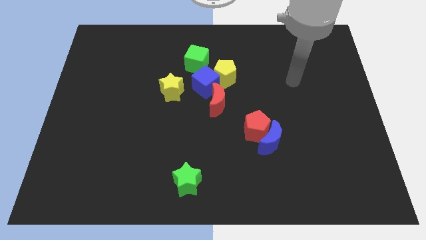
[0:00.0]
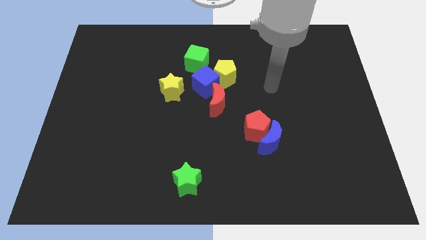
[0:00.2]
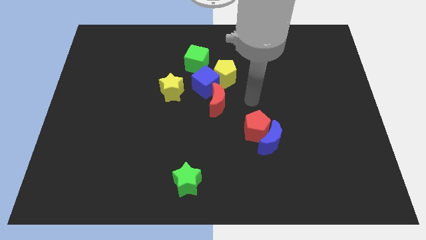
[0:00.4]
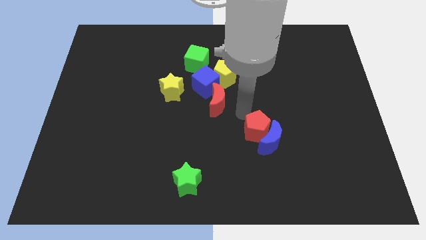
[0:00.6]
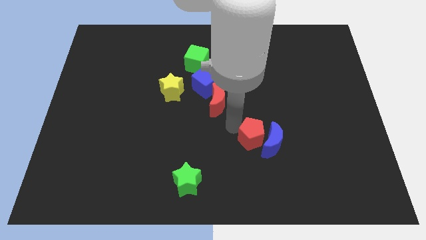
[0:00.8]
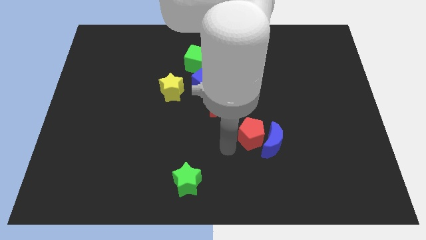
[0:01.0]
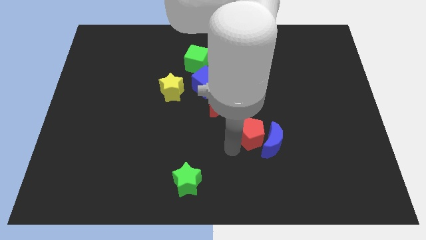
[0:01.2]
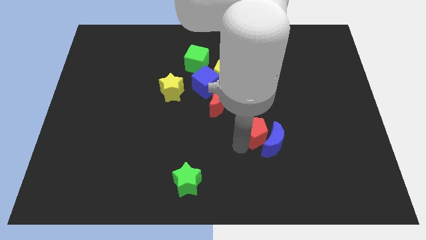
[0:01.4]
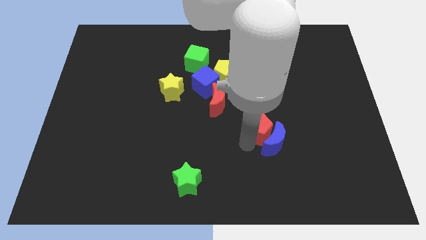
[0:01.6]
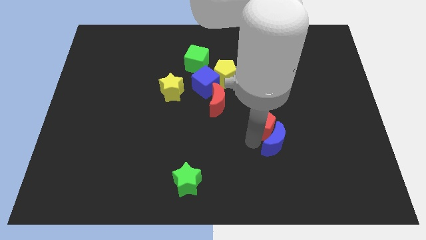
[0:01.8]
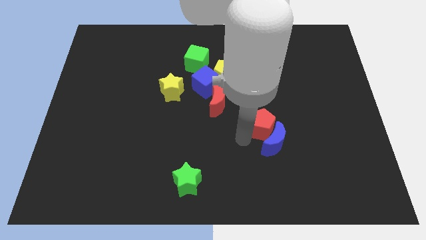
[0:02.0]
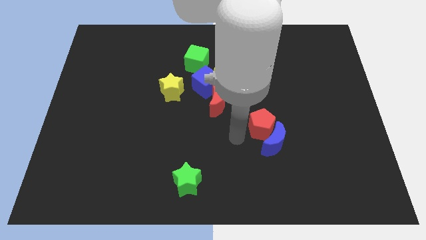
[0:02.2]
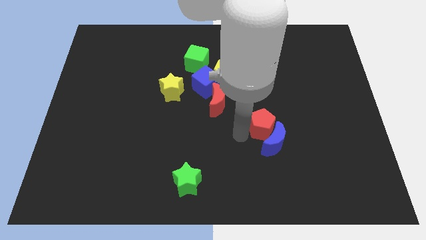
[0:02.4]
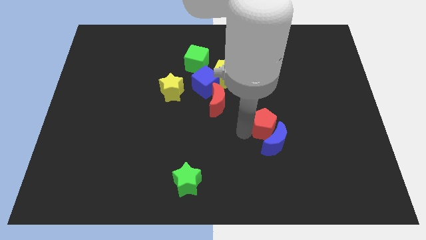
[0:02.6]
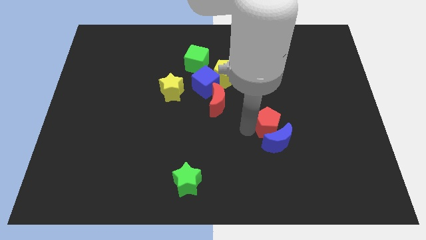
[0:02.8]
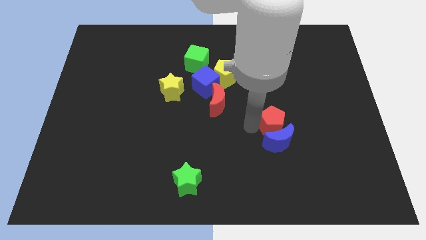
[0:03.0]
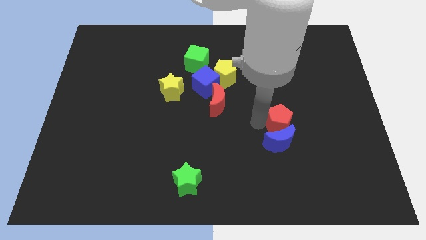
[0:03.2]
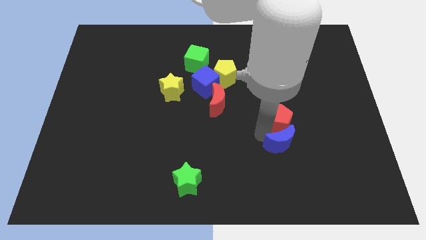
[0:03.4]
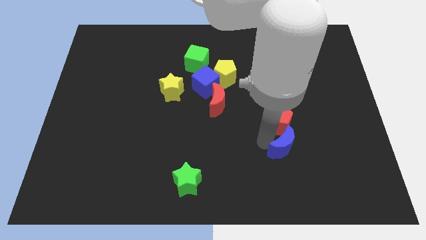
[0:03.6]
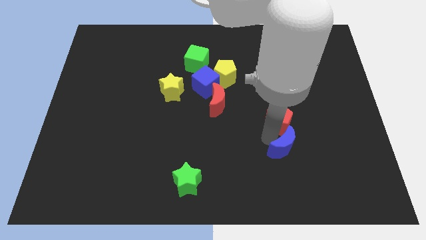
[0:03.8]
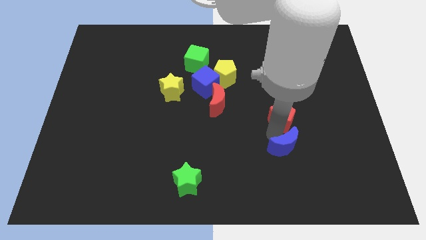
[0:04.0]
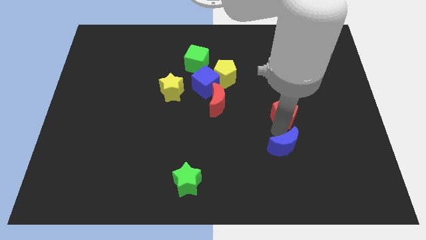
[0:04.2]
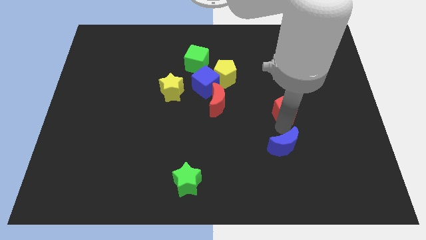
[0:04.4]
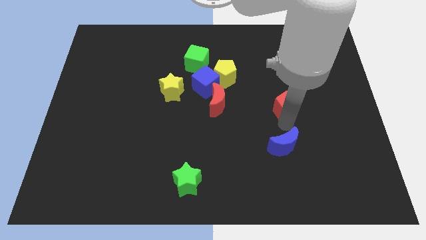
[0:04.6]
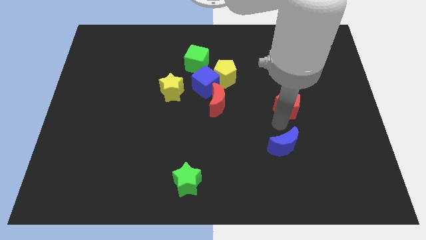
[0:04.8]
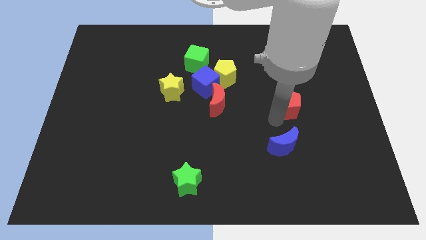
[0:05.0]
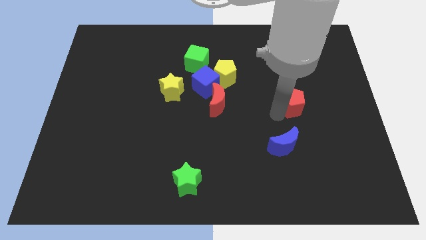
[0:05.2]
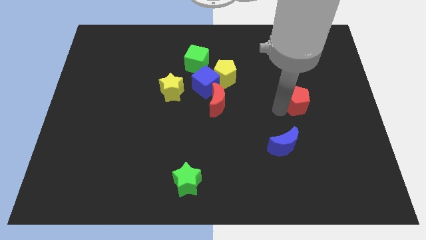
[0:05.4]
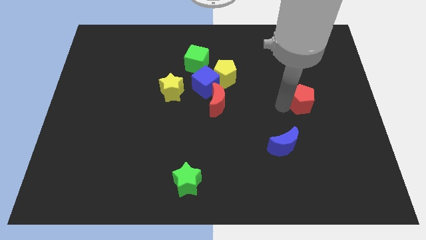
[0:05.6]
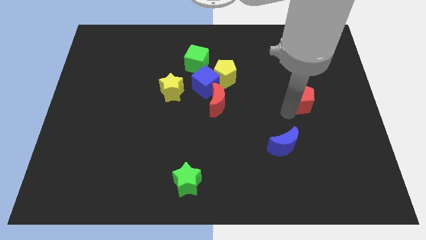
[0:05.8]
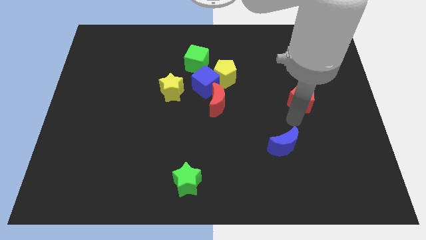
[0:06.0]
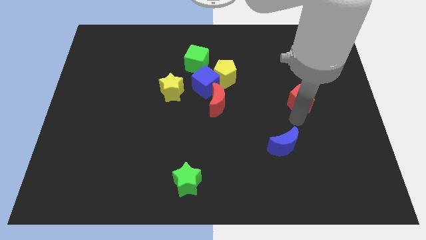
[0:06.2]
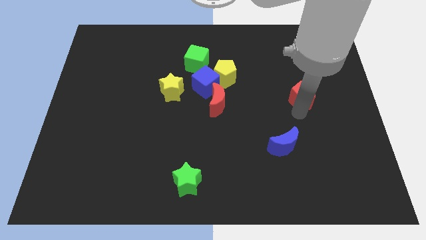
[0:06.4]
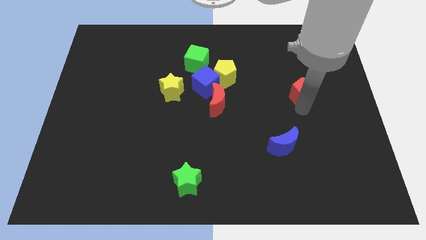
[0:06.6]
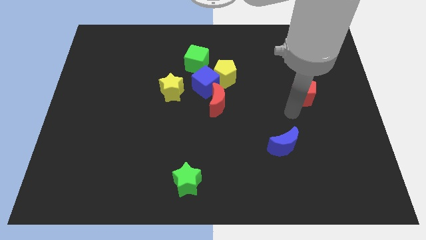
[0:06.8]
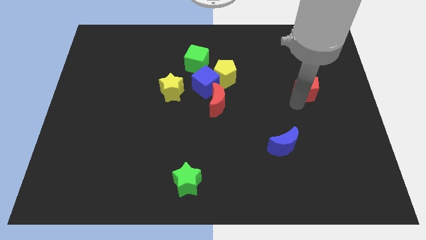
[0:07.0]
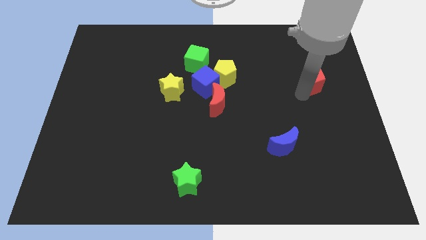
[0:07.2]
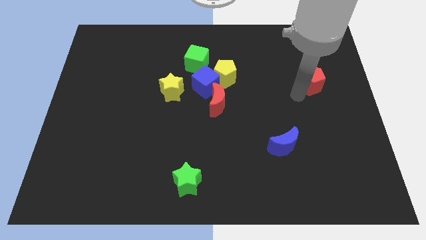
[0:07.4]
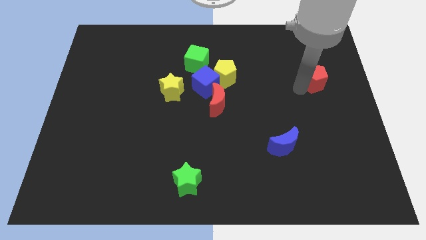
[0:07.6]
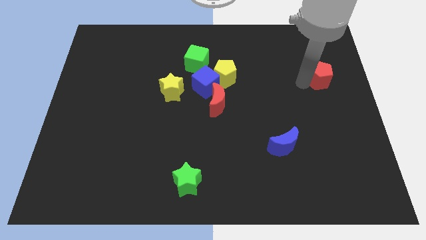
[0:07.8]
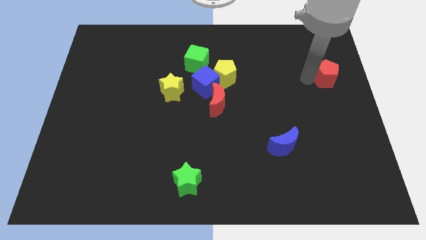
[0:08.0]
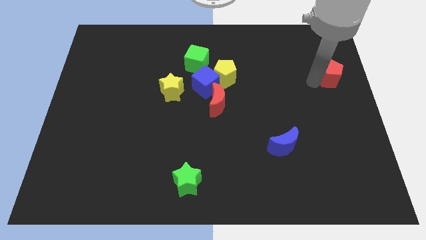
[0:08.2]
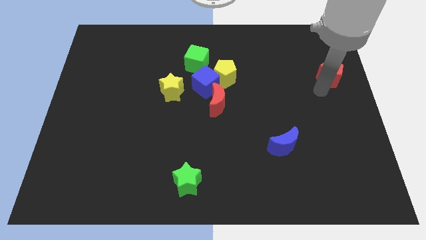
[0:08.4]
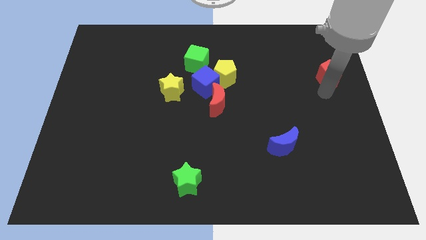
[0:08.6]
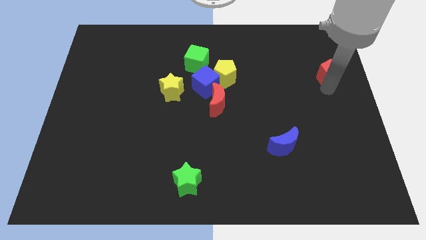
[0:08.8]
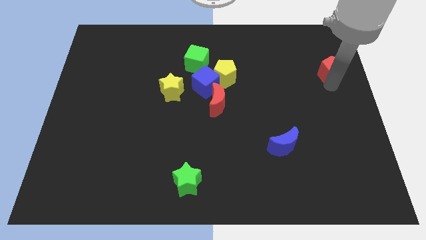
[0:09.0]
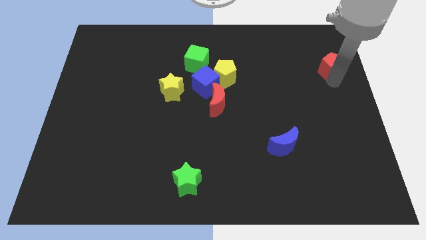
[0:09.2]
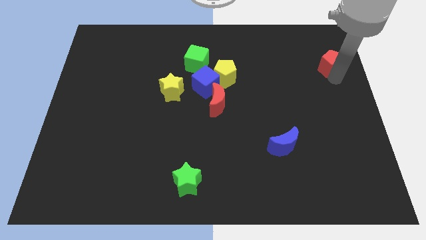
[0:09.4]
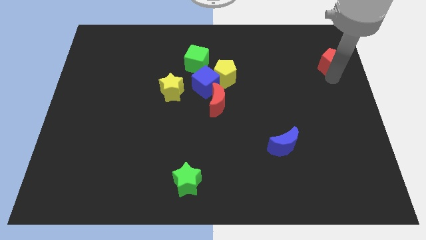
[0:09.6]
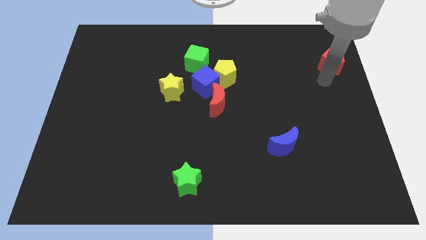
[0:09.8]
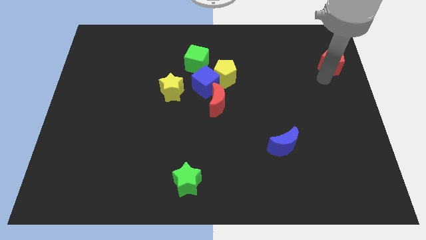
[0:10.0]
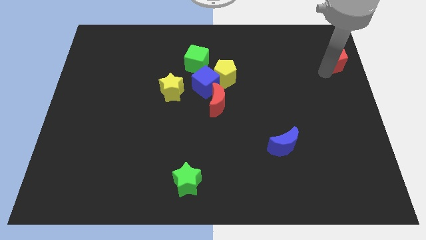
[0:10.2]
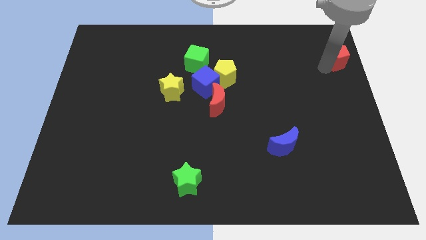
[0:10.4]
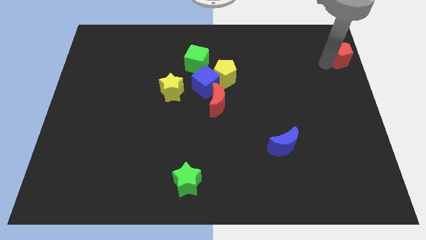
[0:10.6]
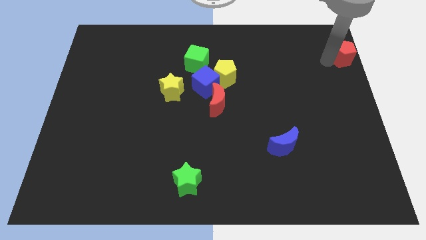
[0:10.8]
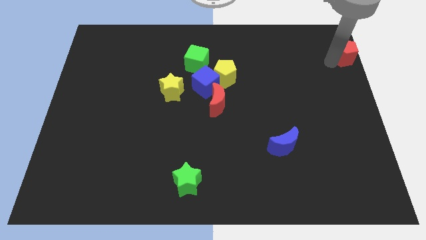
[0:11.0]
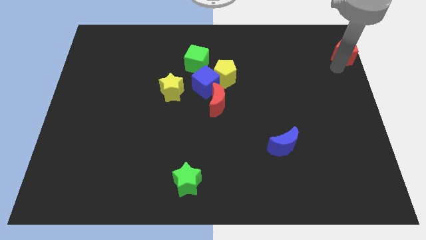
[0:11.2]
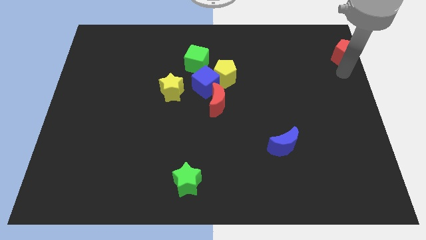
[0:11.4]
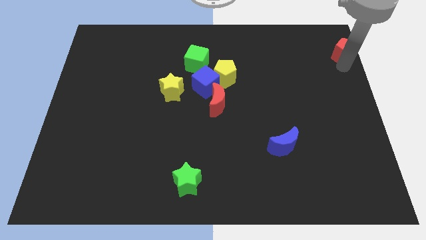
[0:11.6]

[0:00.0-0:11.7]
move the red pentagon to the top right corner
